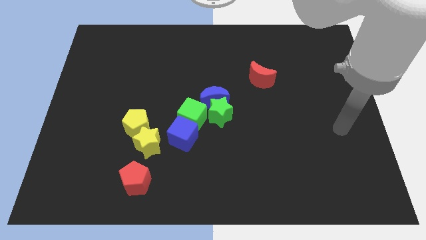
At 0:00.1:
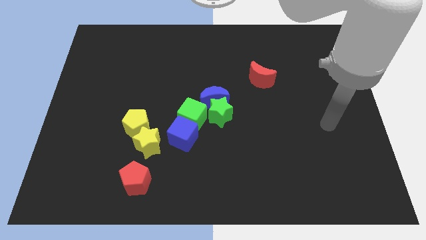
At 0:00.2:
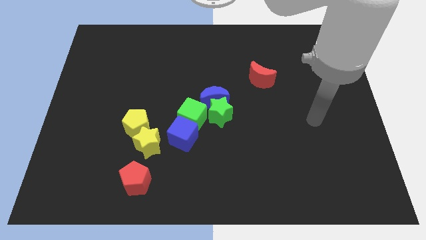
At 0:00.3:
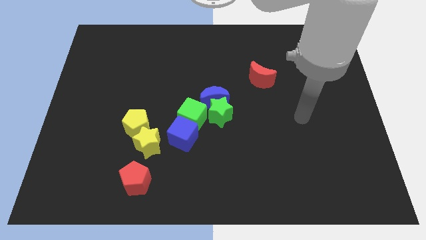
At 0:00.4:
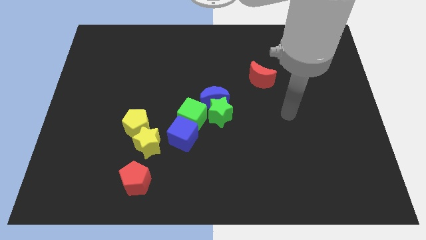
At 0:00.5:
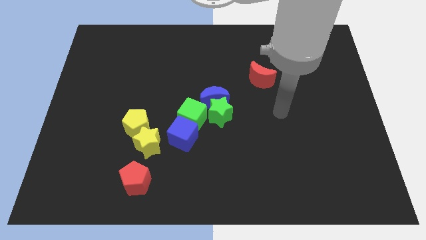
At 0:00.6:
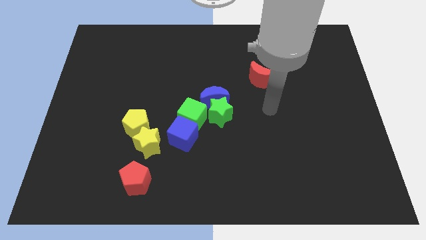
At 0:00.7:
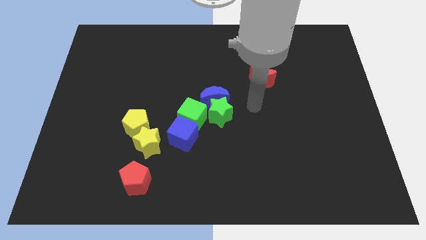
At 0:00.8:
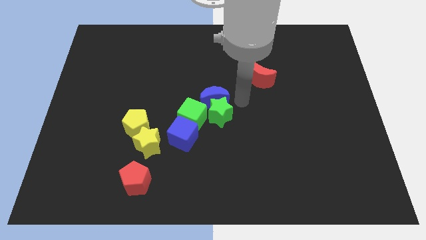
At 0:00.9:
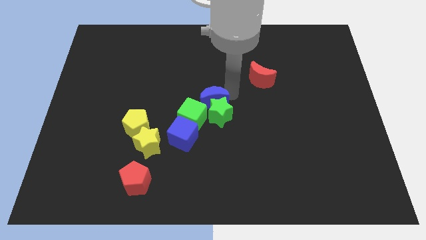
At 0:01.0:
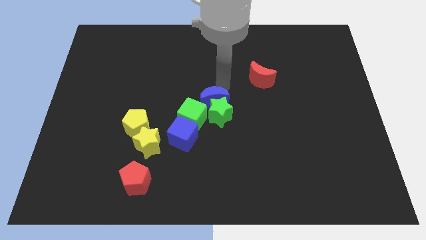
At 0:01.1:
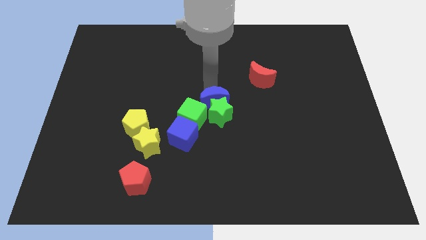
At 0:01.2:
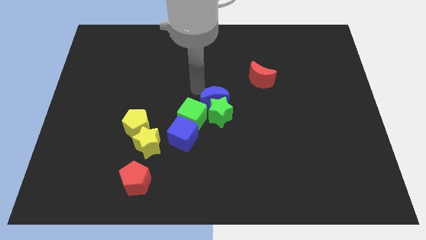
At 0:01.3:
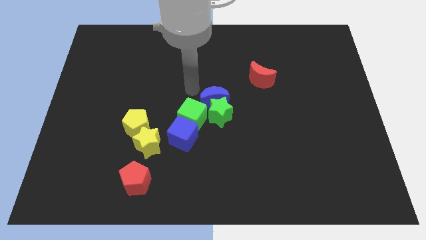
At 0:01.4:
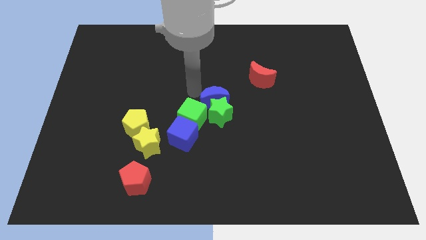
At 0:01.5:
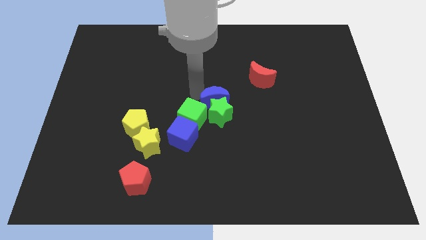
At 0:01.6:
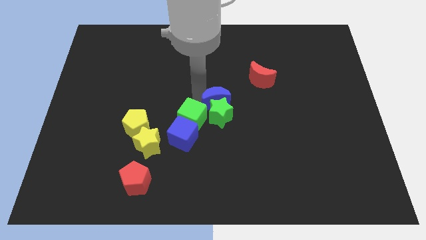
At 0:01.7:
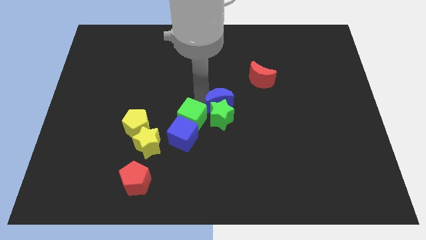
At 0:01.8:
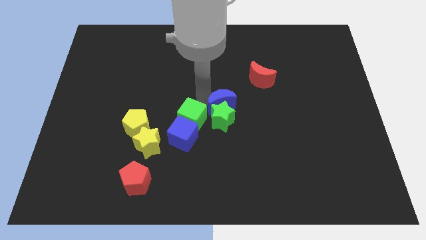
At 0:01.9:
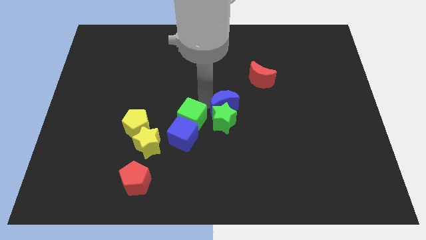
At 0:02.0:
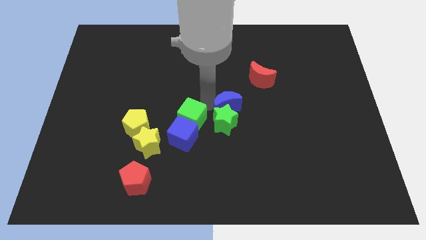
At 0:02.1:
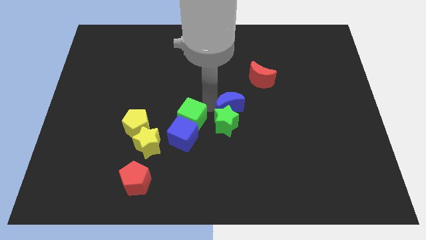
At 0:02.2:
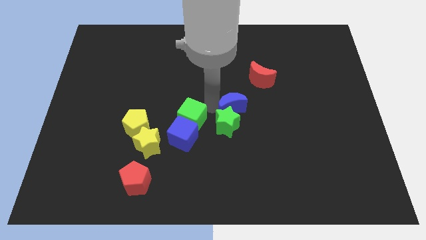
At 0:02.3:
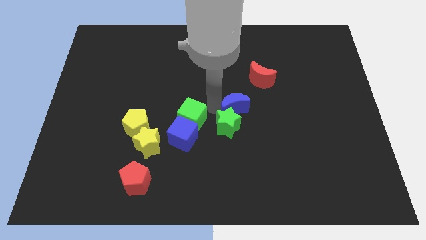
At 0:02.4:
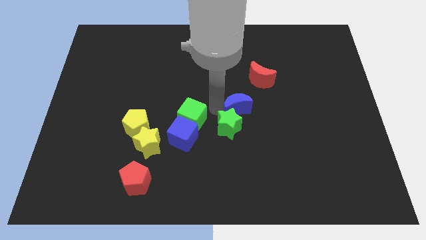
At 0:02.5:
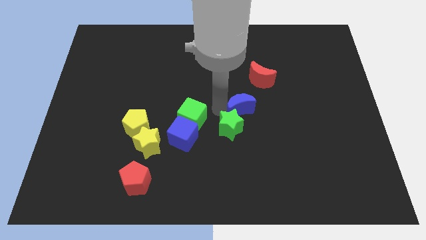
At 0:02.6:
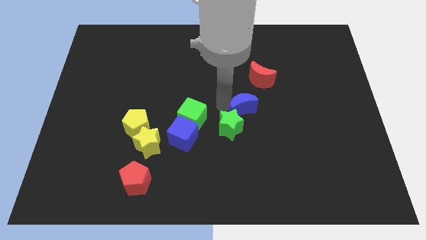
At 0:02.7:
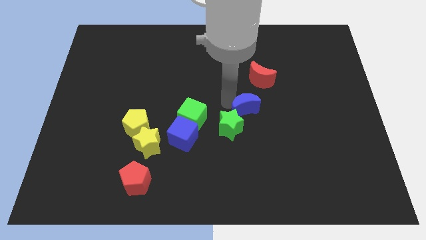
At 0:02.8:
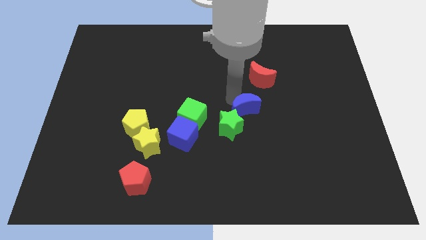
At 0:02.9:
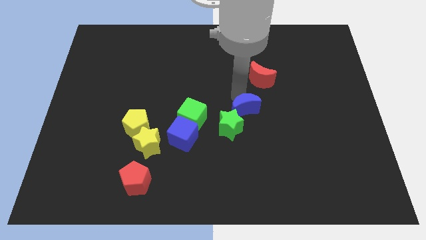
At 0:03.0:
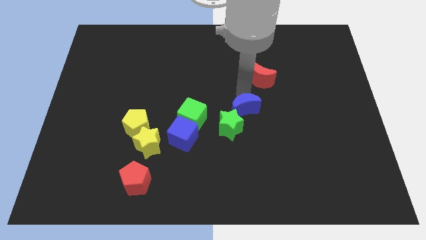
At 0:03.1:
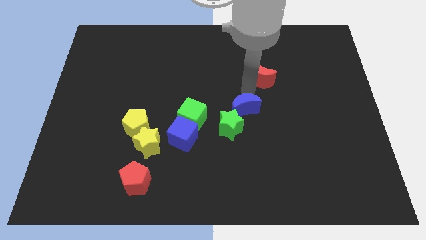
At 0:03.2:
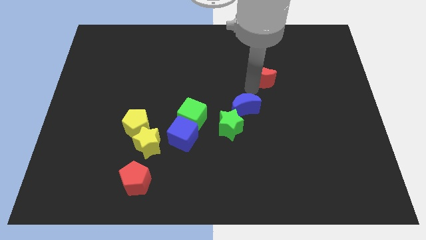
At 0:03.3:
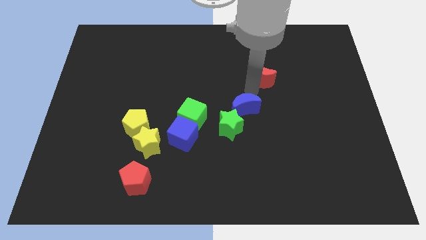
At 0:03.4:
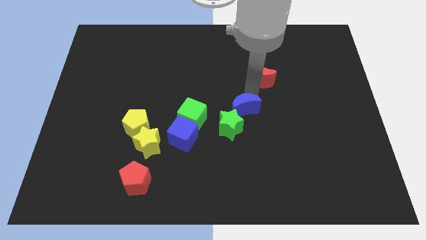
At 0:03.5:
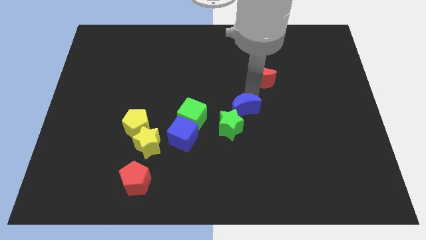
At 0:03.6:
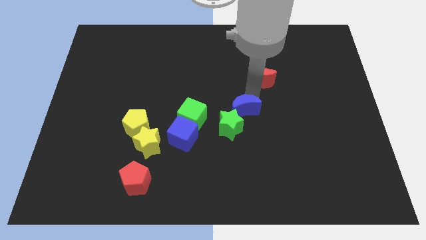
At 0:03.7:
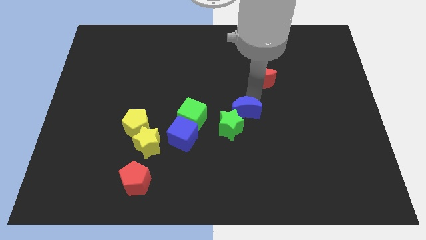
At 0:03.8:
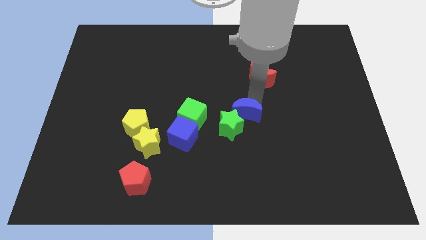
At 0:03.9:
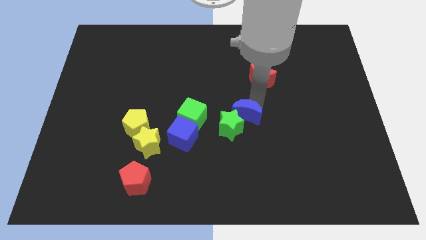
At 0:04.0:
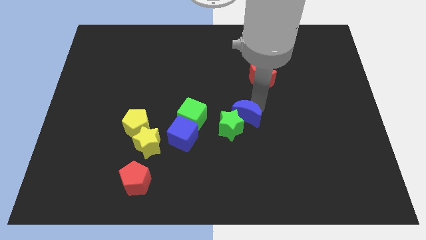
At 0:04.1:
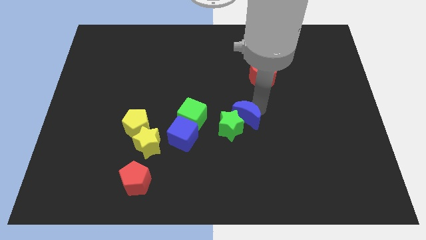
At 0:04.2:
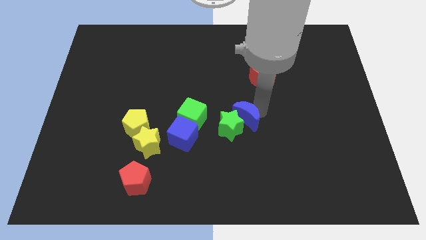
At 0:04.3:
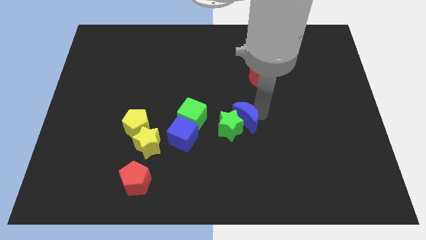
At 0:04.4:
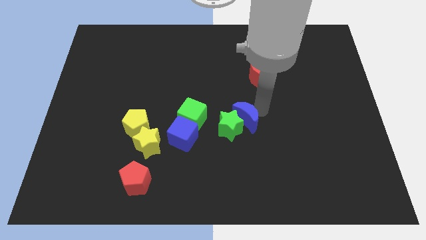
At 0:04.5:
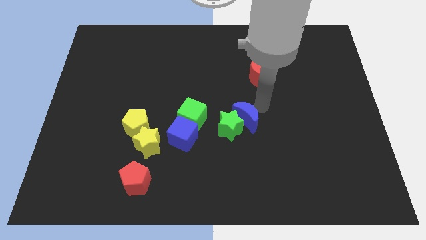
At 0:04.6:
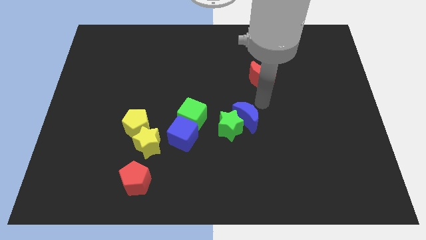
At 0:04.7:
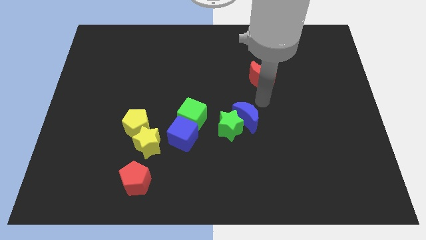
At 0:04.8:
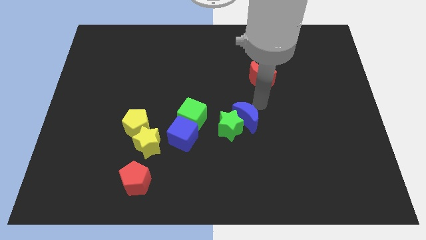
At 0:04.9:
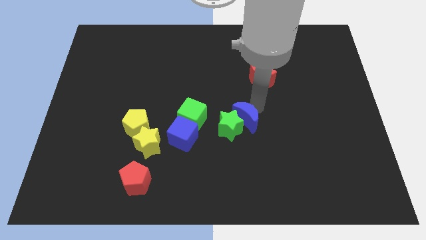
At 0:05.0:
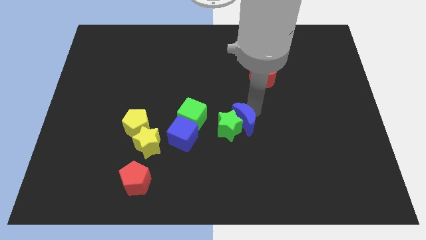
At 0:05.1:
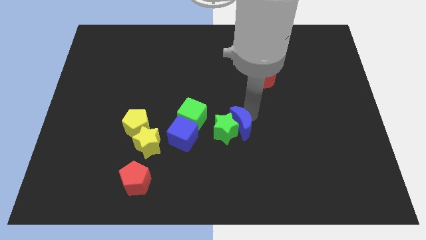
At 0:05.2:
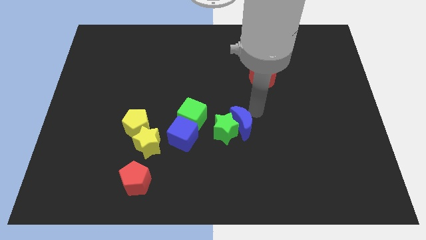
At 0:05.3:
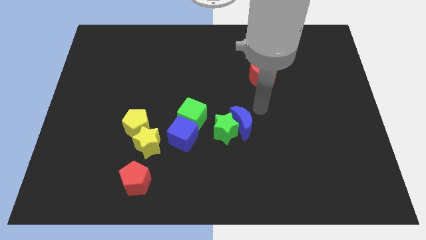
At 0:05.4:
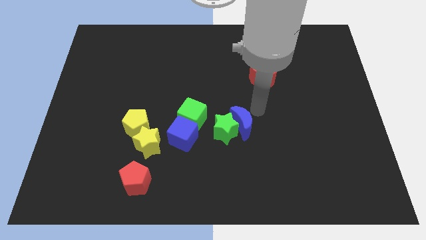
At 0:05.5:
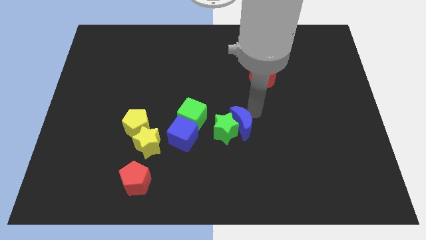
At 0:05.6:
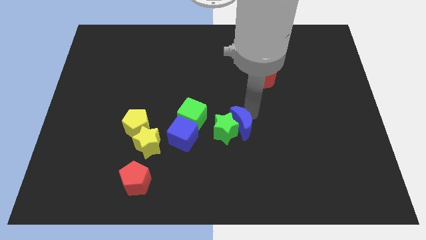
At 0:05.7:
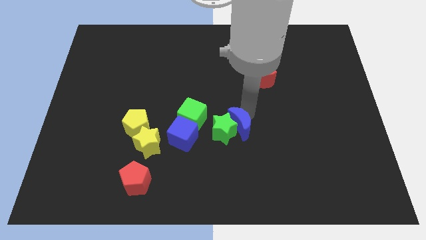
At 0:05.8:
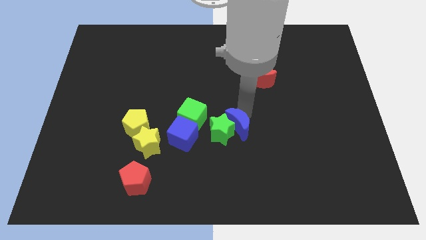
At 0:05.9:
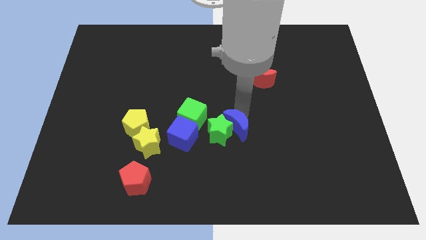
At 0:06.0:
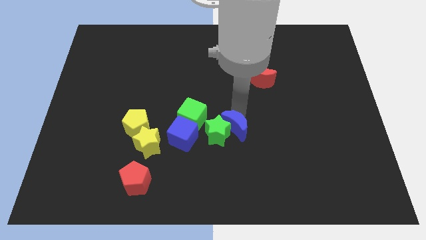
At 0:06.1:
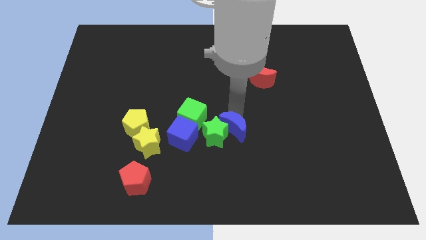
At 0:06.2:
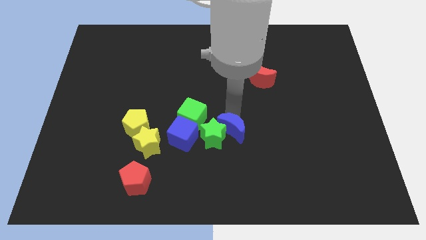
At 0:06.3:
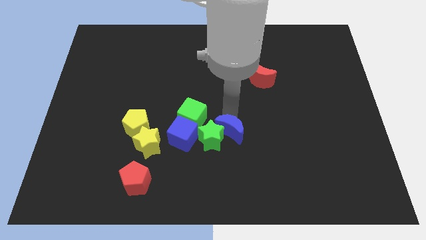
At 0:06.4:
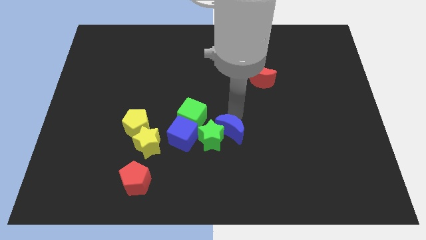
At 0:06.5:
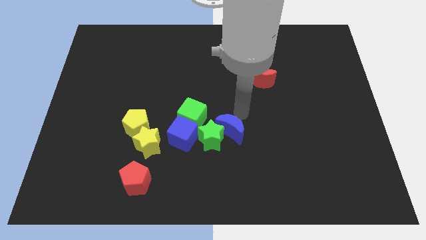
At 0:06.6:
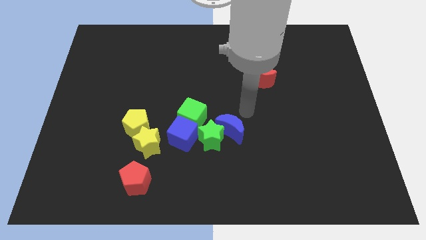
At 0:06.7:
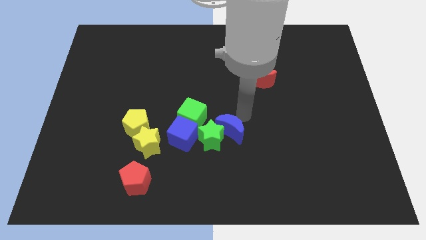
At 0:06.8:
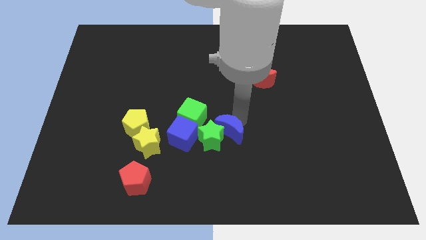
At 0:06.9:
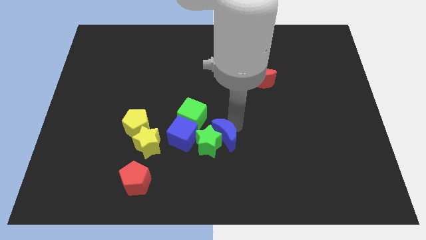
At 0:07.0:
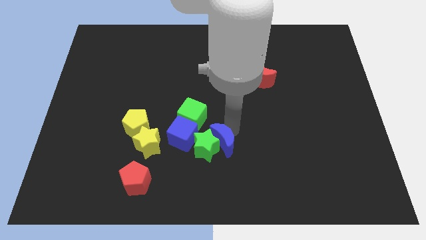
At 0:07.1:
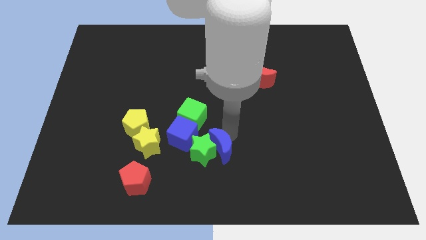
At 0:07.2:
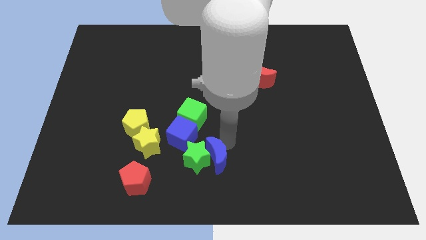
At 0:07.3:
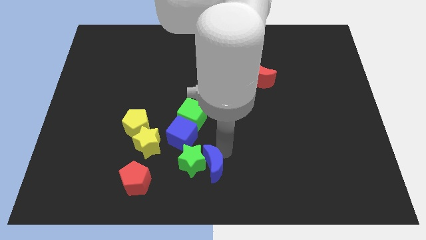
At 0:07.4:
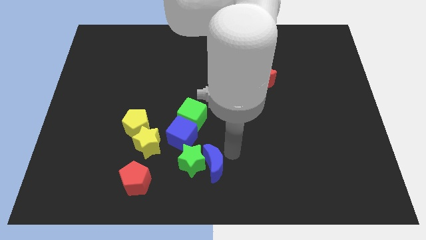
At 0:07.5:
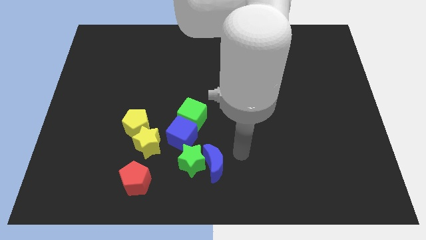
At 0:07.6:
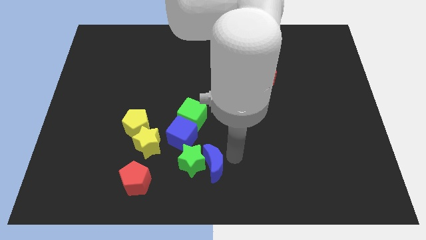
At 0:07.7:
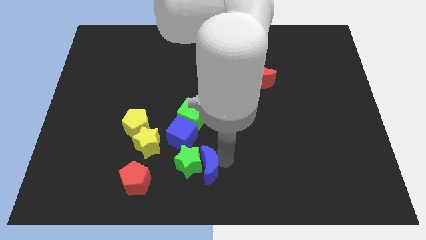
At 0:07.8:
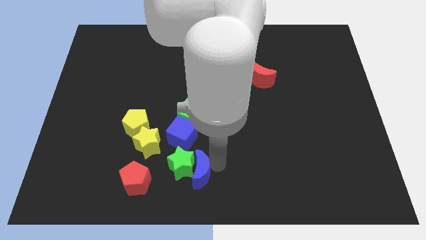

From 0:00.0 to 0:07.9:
put the blue moon below the blue cube
